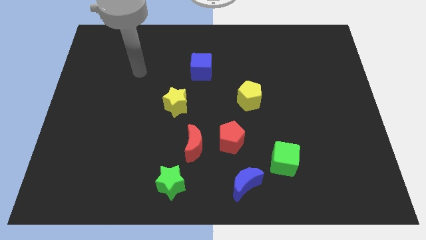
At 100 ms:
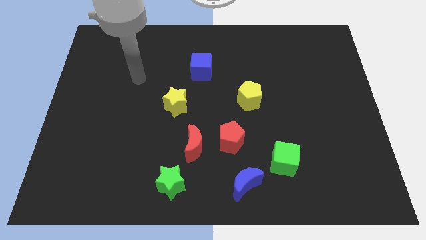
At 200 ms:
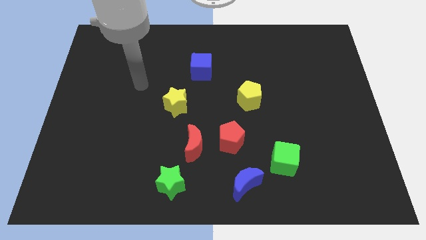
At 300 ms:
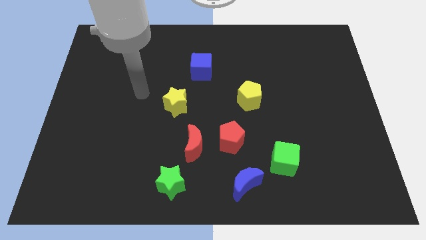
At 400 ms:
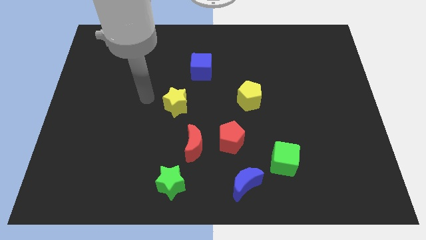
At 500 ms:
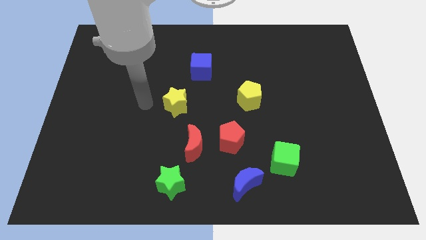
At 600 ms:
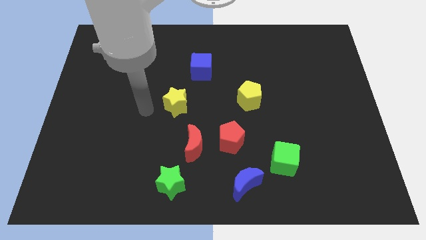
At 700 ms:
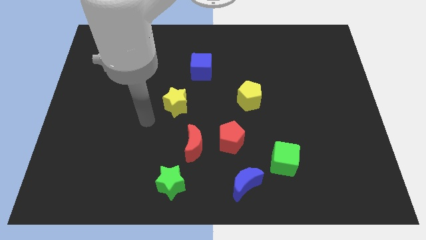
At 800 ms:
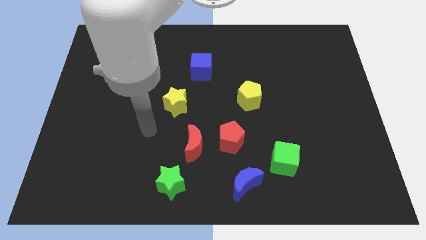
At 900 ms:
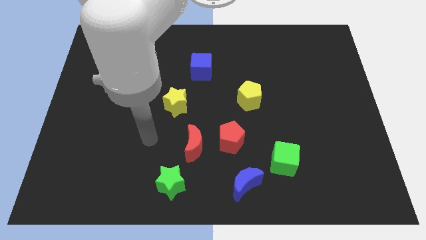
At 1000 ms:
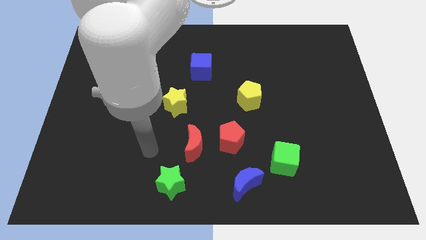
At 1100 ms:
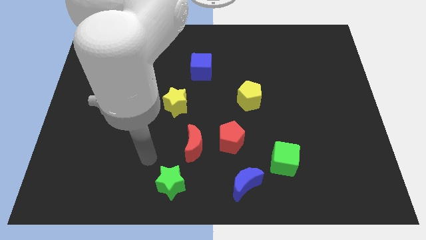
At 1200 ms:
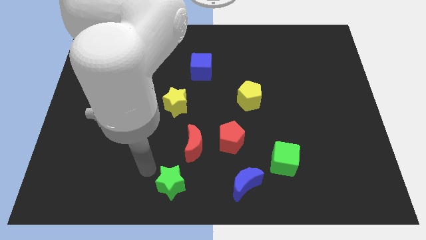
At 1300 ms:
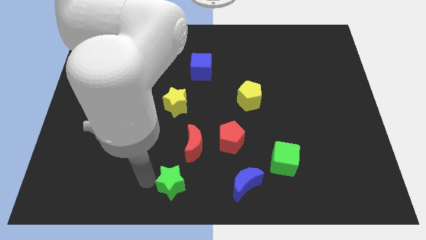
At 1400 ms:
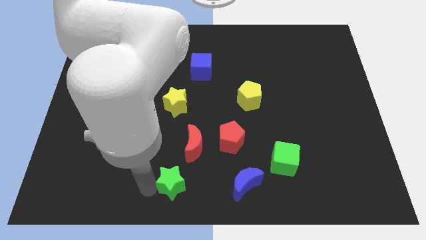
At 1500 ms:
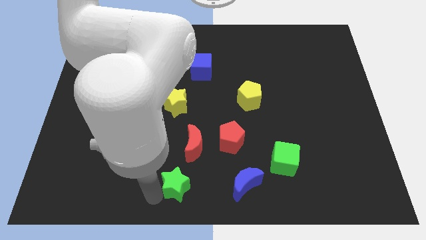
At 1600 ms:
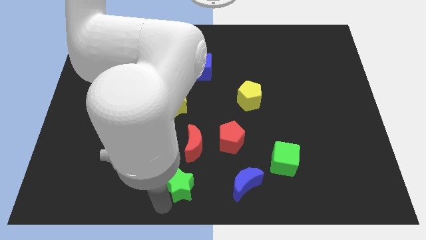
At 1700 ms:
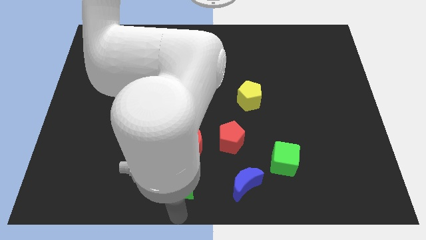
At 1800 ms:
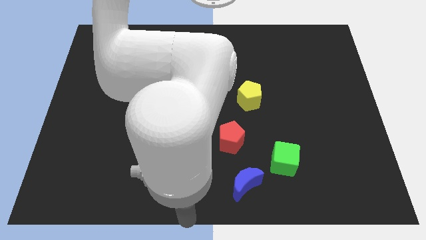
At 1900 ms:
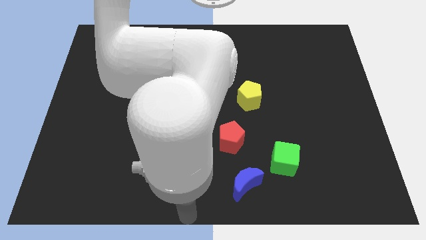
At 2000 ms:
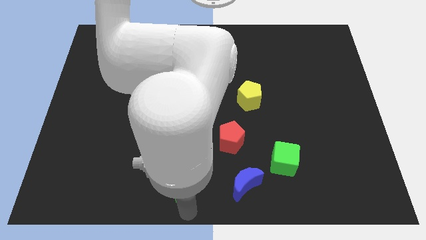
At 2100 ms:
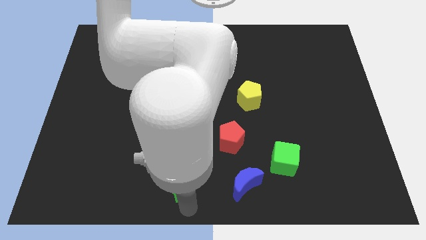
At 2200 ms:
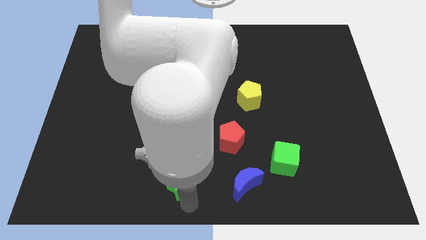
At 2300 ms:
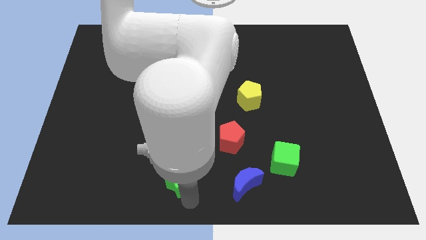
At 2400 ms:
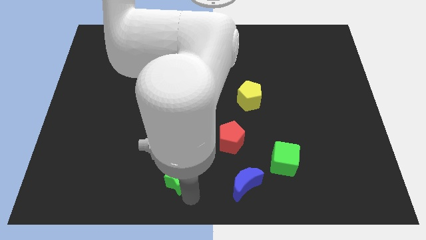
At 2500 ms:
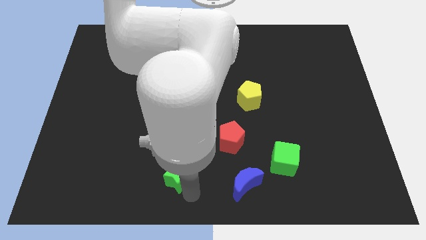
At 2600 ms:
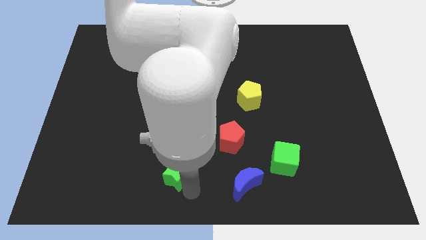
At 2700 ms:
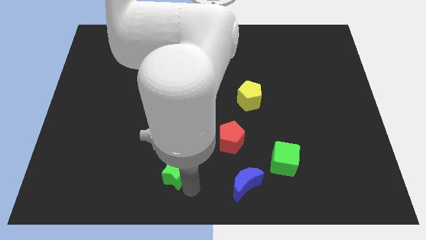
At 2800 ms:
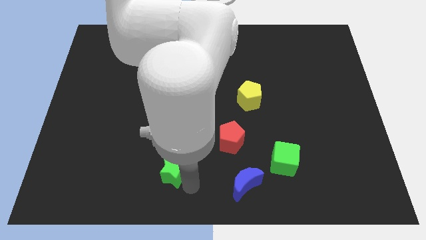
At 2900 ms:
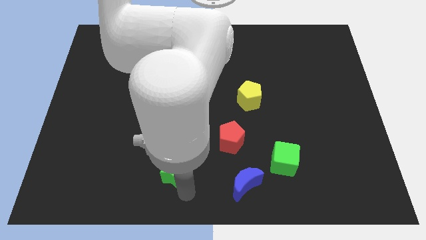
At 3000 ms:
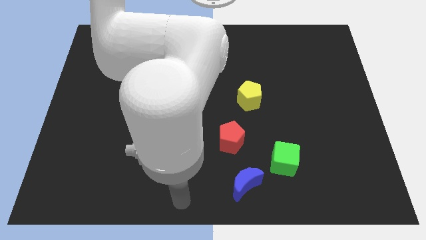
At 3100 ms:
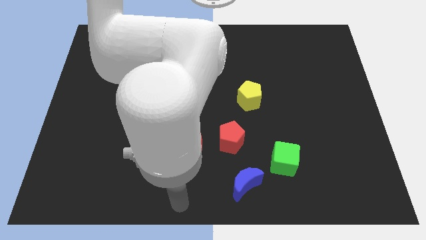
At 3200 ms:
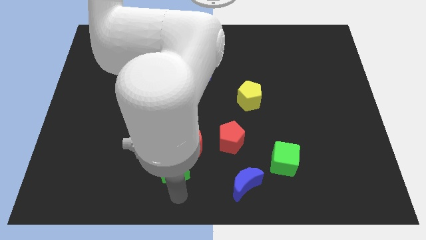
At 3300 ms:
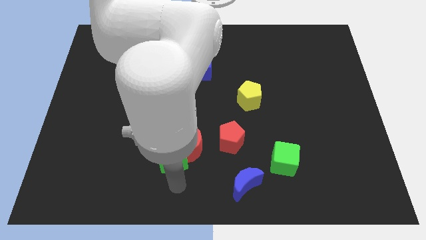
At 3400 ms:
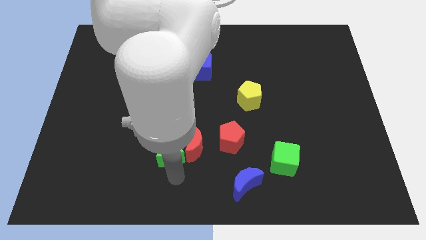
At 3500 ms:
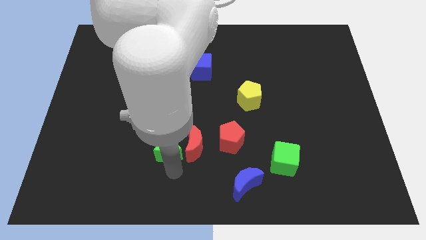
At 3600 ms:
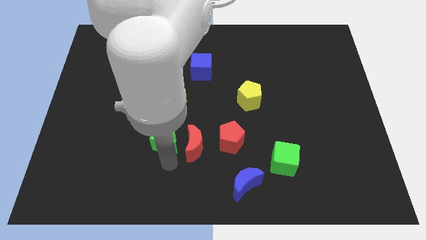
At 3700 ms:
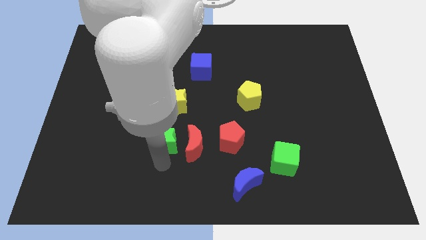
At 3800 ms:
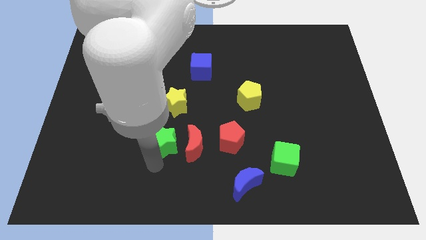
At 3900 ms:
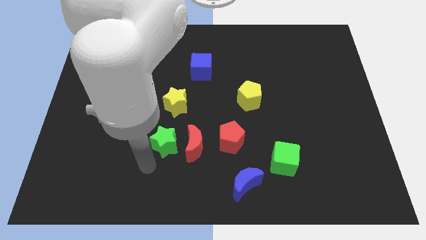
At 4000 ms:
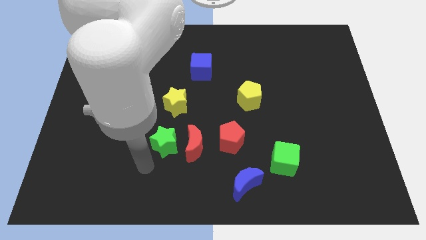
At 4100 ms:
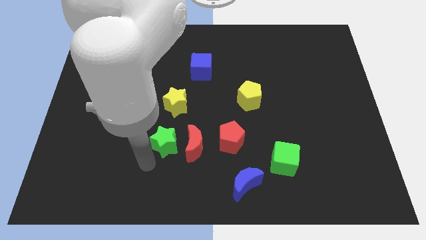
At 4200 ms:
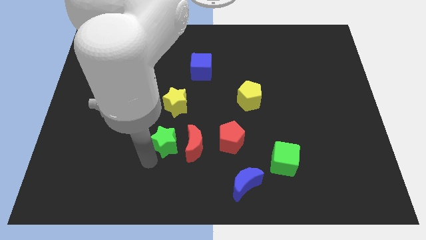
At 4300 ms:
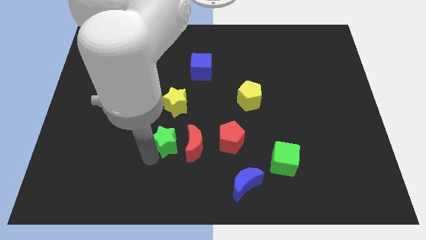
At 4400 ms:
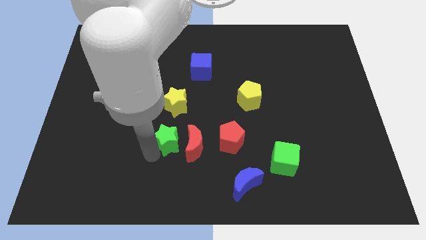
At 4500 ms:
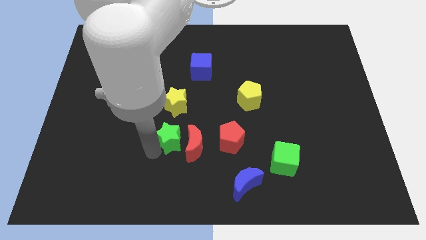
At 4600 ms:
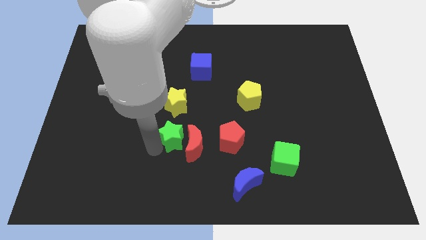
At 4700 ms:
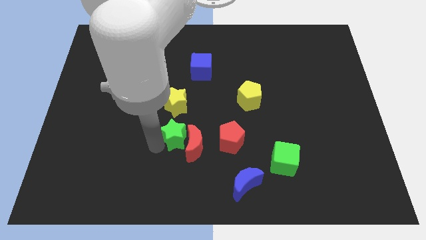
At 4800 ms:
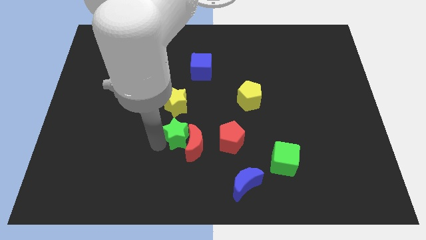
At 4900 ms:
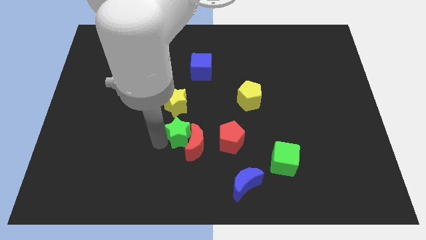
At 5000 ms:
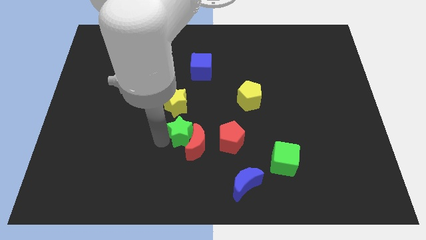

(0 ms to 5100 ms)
push the green star to the center
